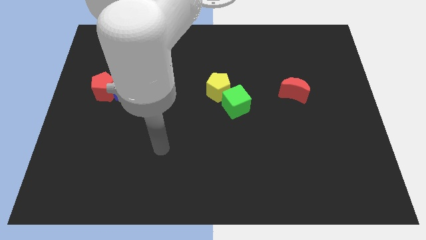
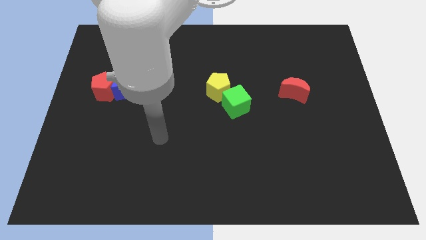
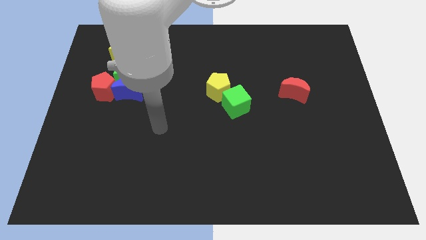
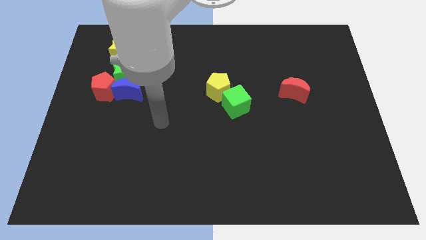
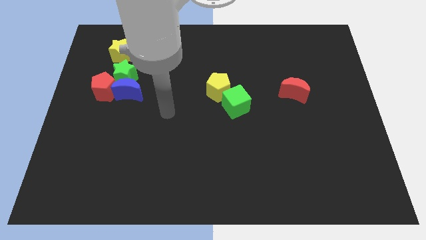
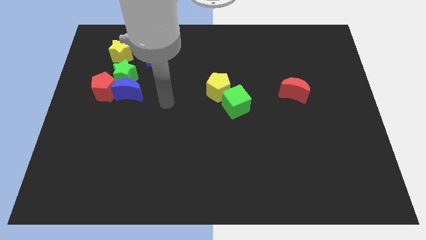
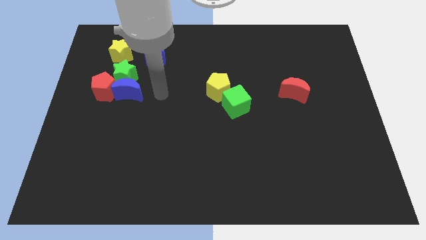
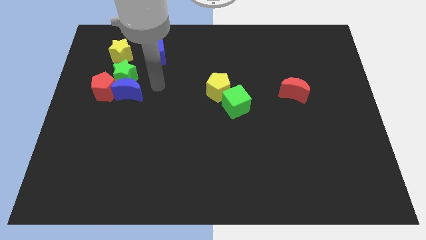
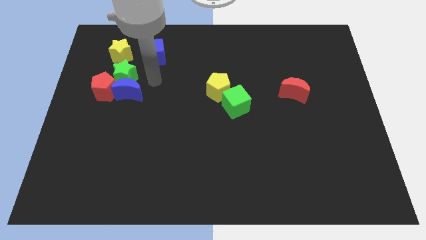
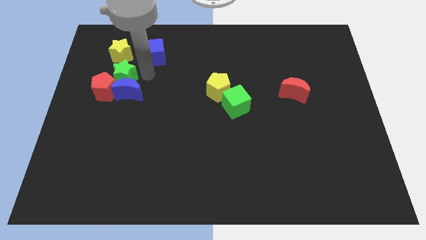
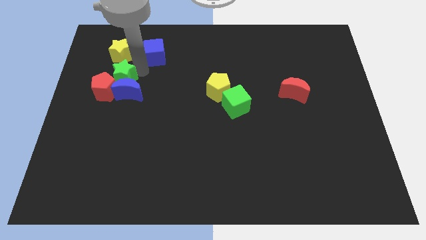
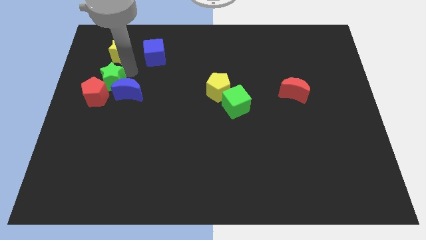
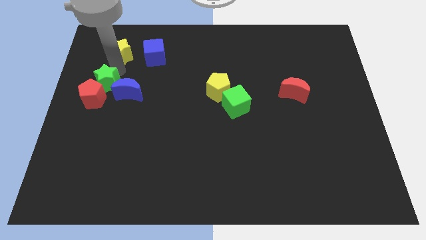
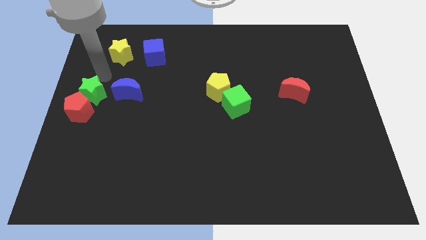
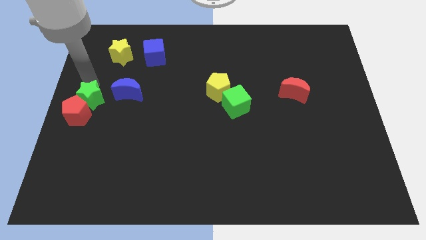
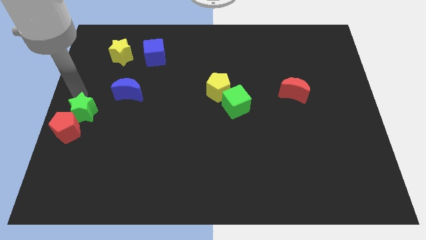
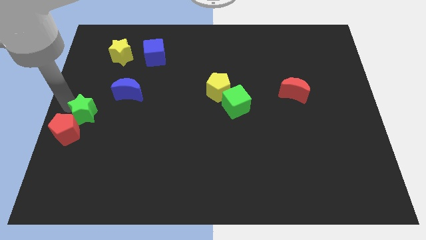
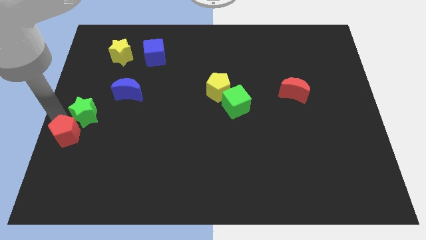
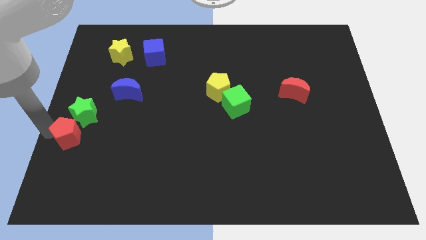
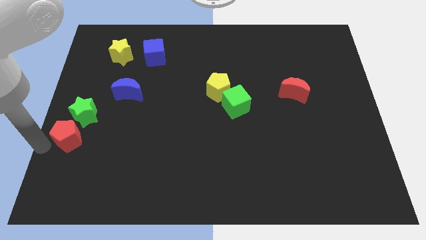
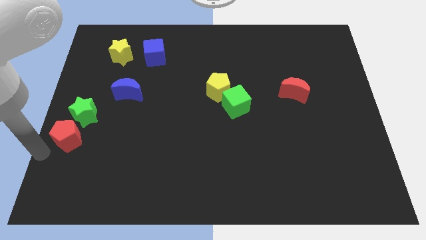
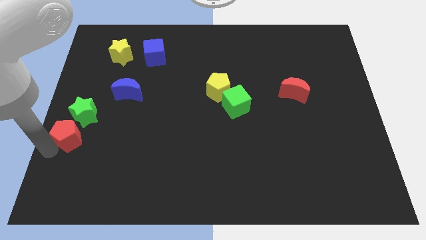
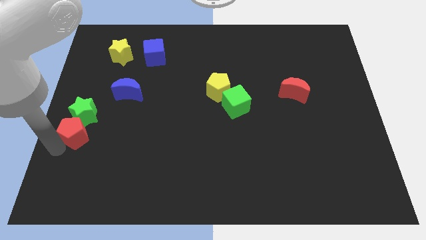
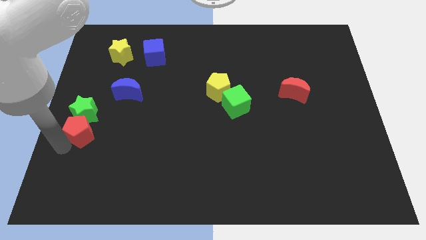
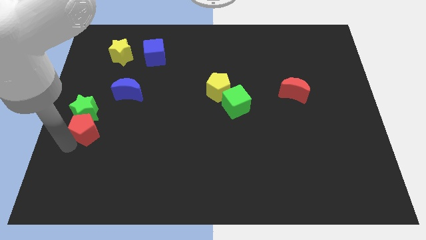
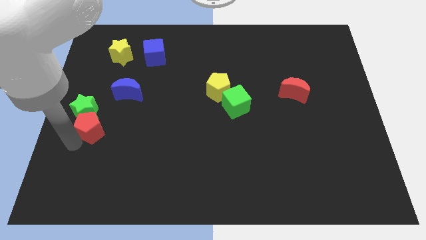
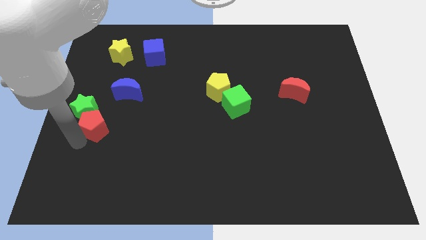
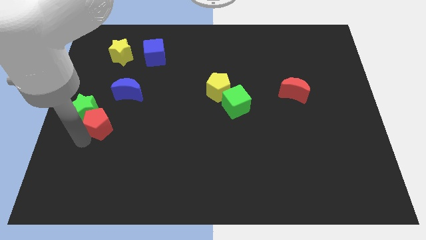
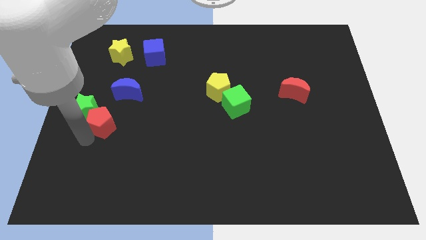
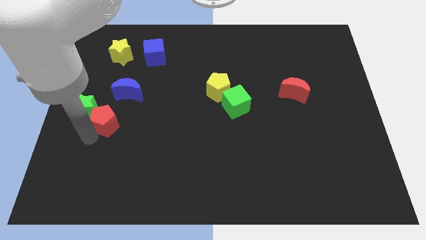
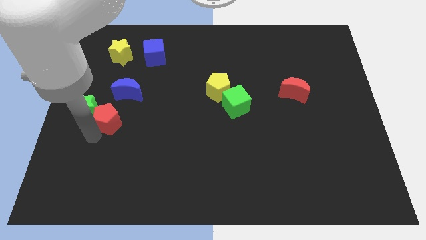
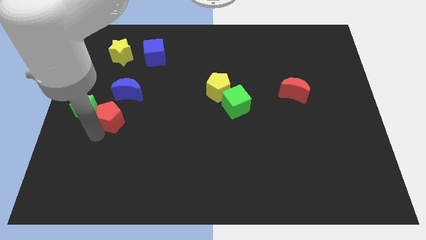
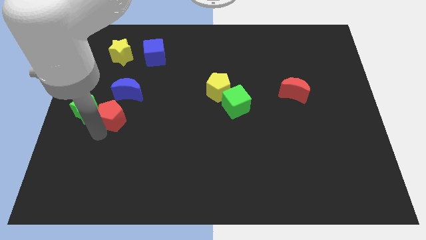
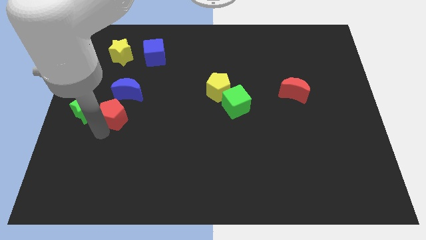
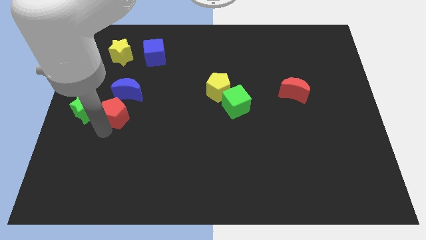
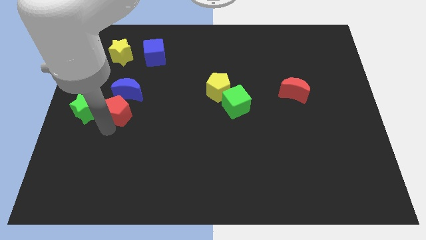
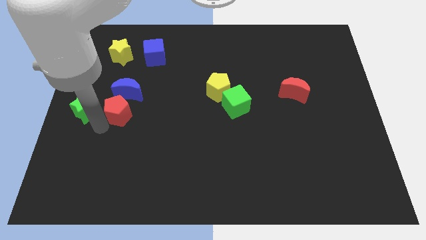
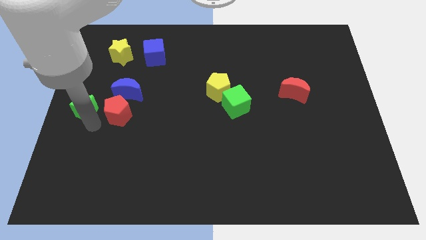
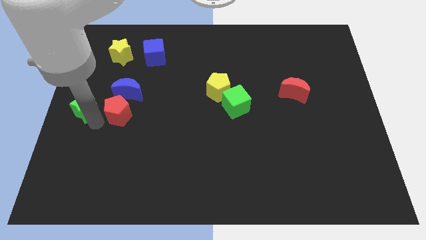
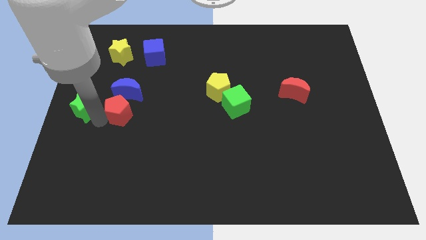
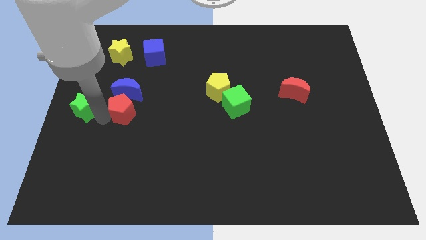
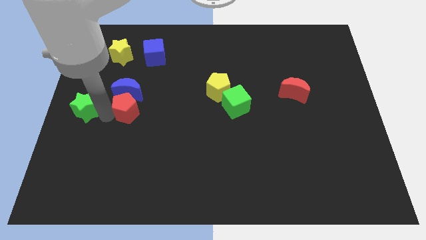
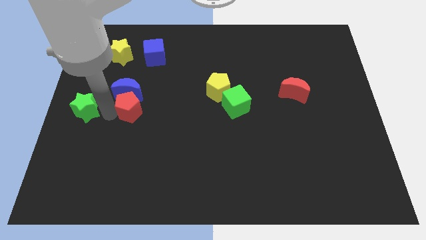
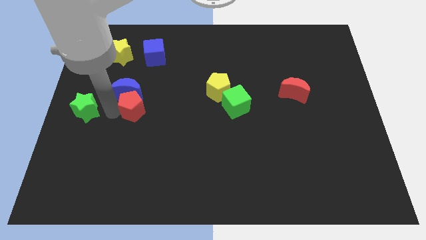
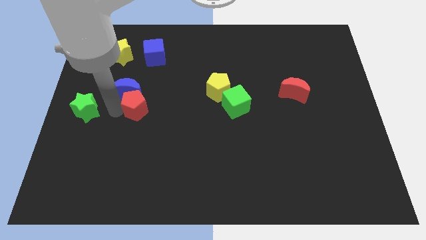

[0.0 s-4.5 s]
slightly slide the red pentagon right

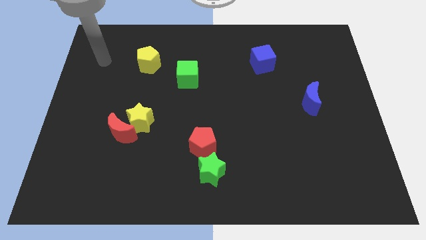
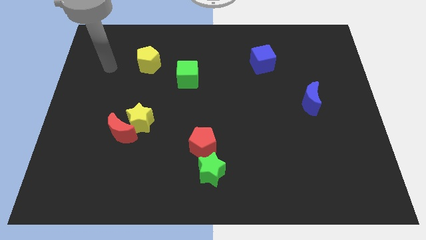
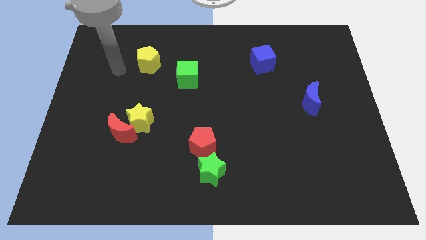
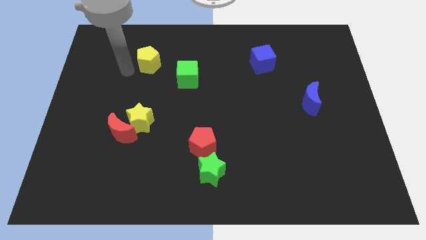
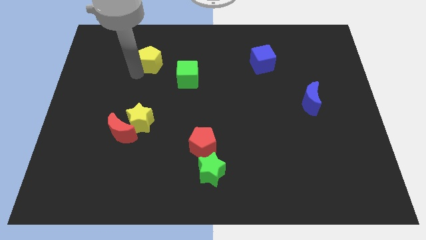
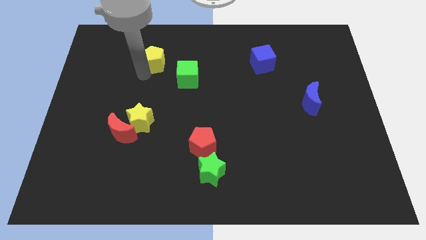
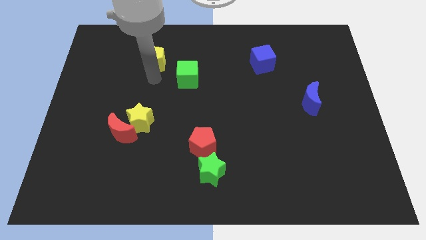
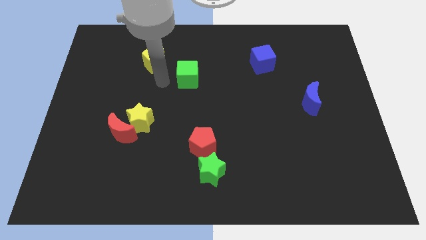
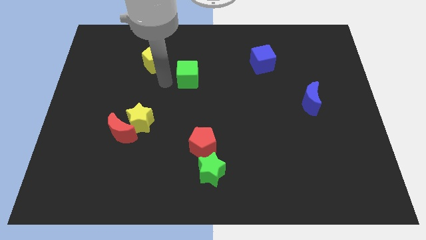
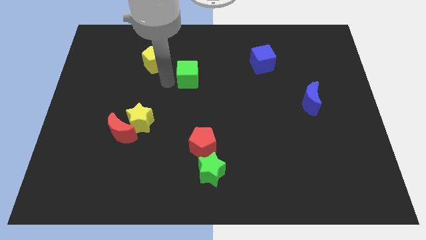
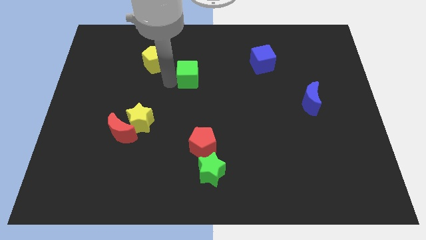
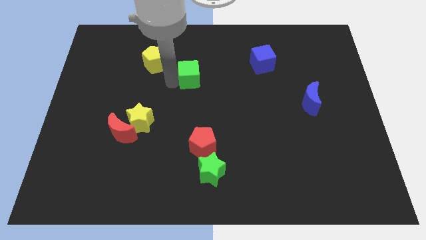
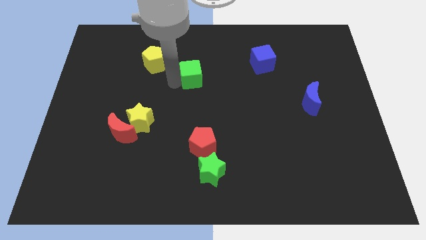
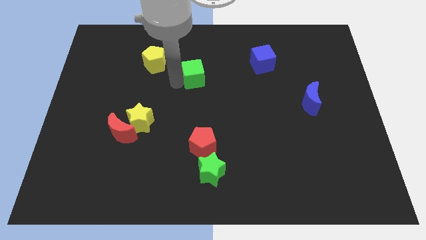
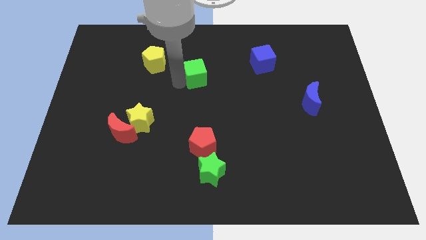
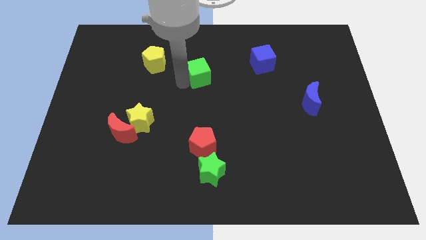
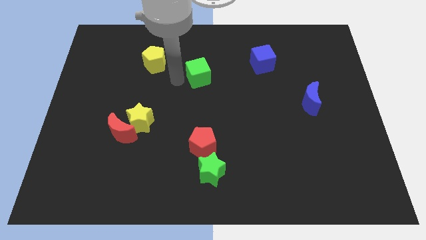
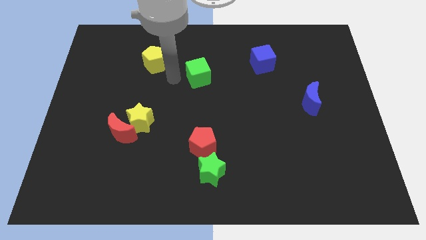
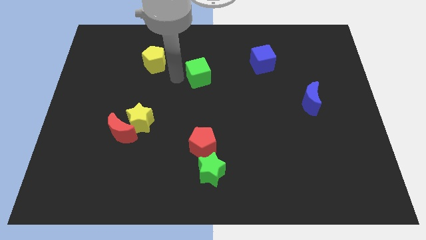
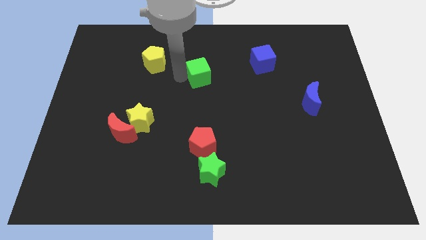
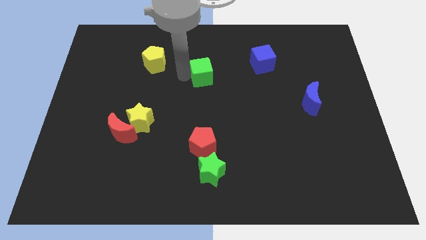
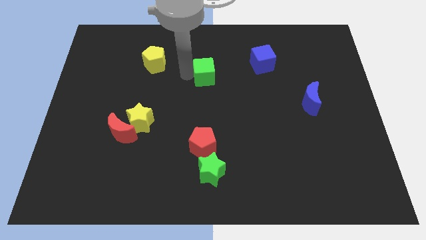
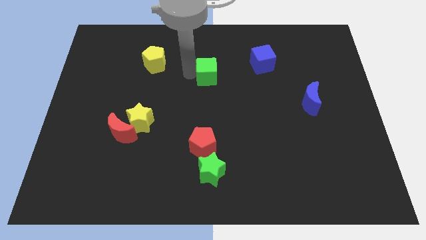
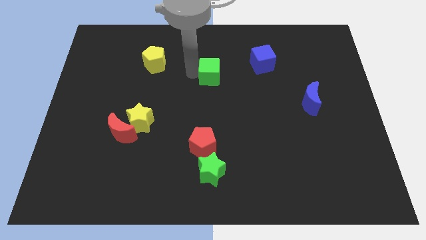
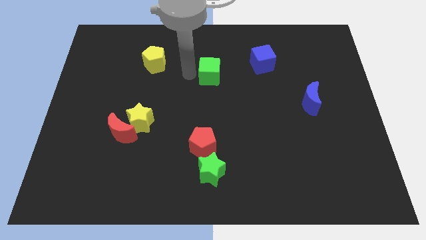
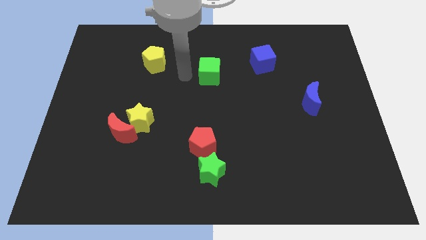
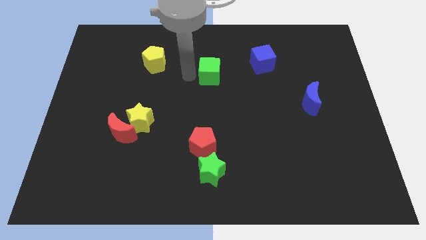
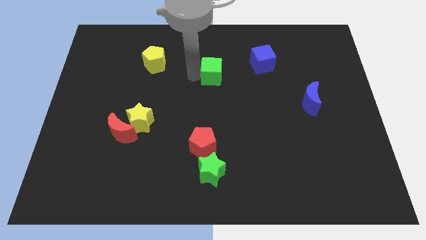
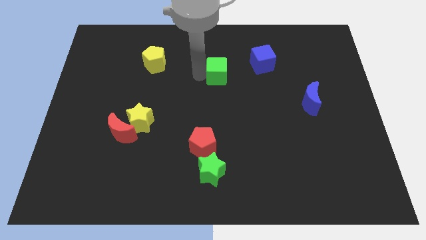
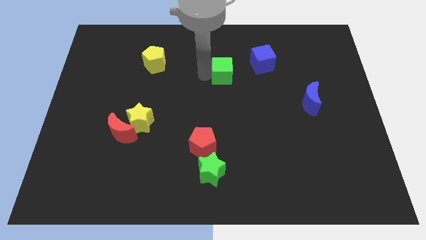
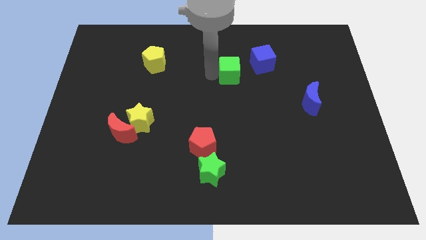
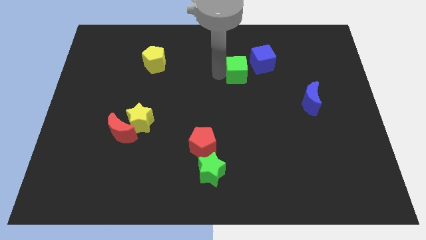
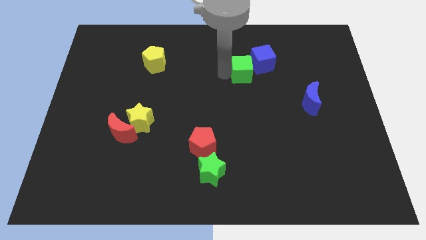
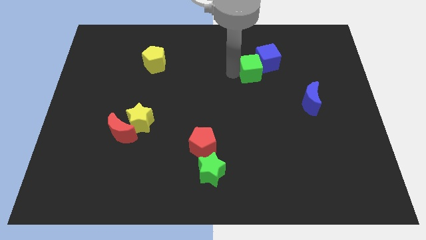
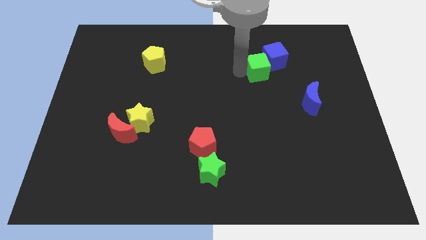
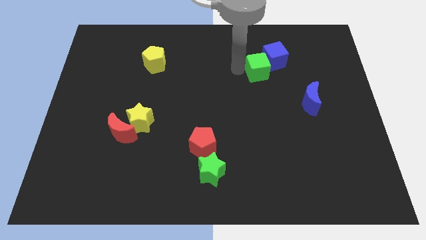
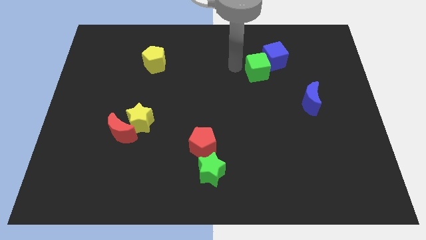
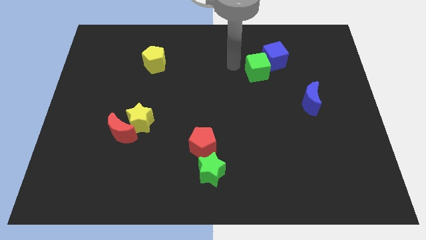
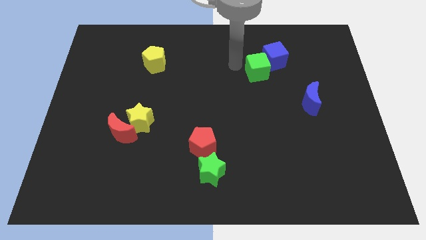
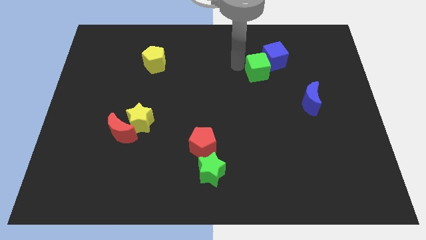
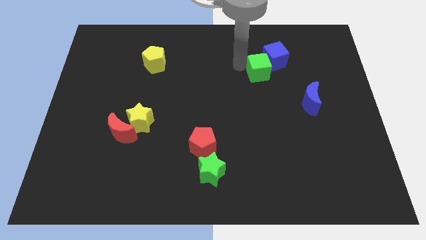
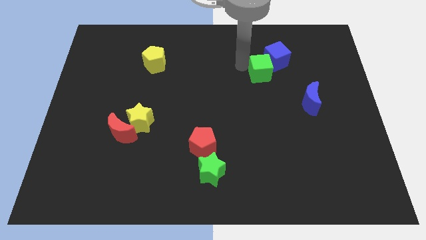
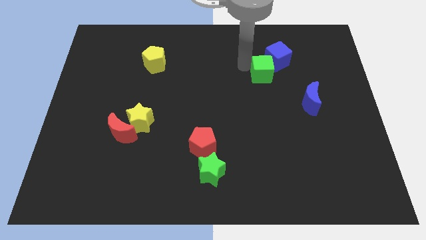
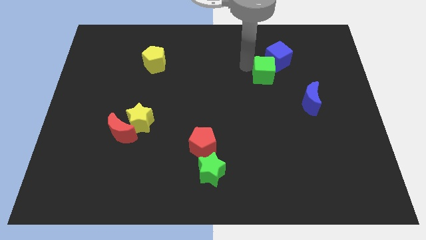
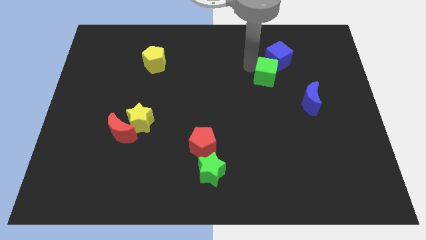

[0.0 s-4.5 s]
move the green cube right
